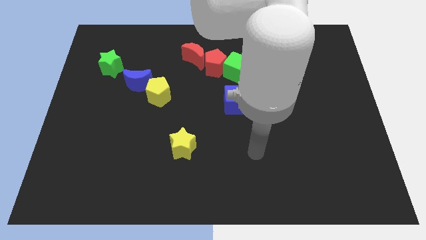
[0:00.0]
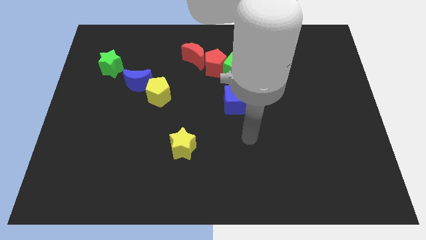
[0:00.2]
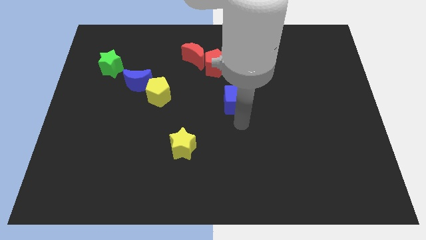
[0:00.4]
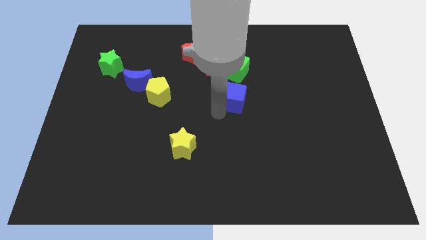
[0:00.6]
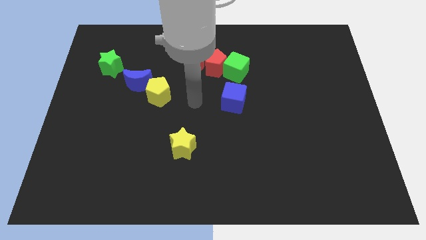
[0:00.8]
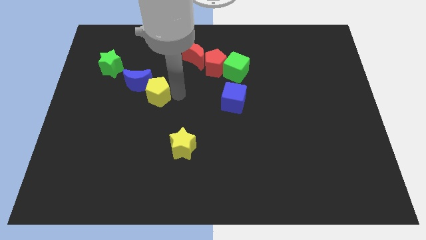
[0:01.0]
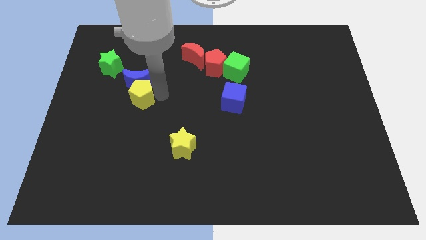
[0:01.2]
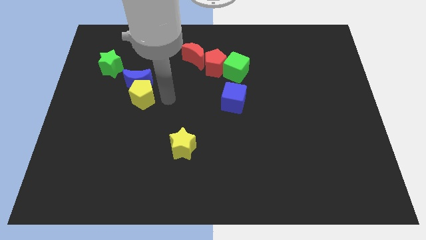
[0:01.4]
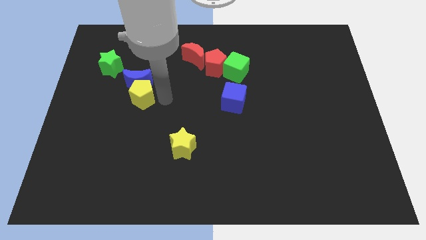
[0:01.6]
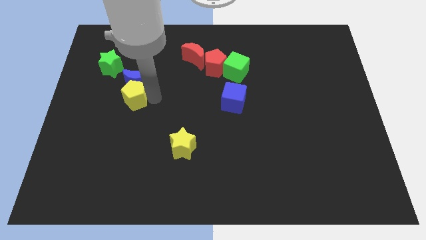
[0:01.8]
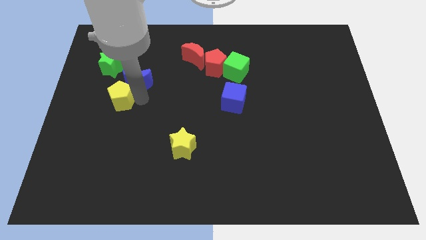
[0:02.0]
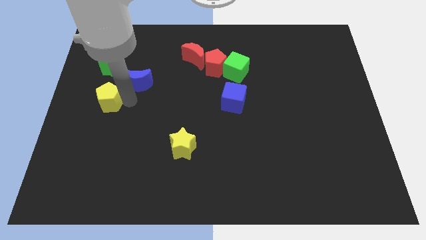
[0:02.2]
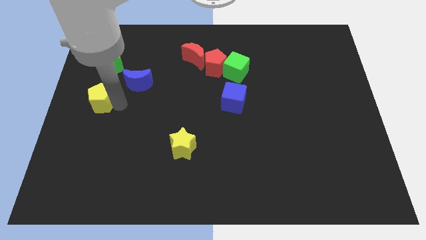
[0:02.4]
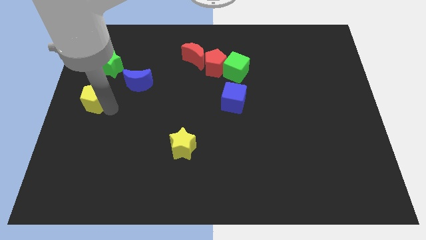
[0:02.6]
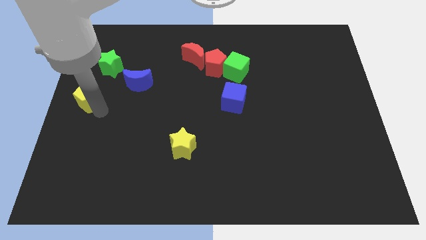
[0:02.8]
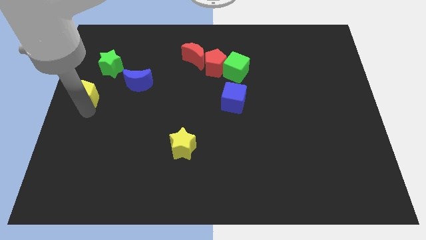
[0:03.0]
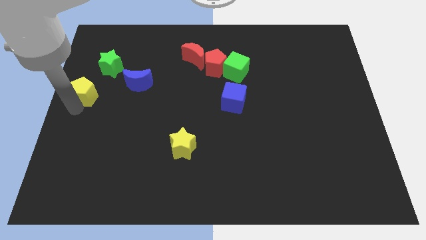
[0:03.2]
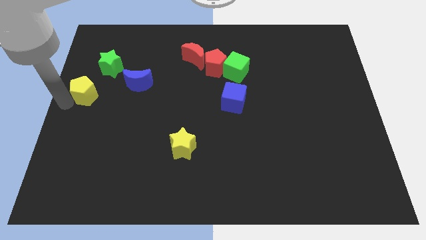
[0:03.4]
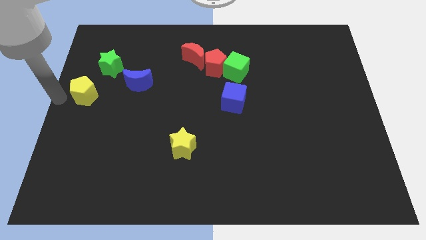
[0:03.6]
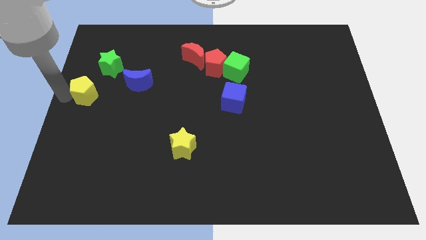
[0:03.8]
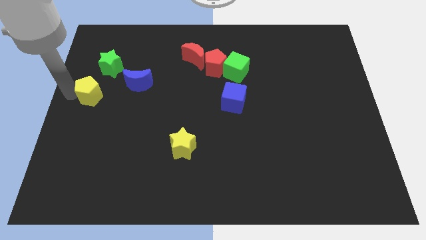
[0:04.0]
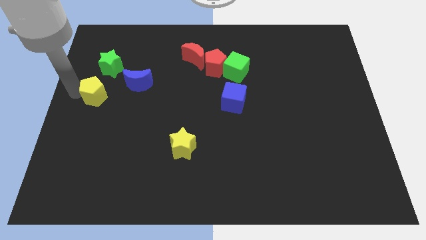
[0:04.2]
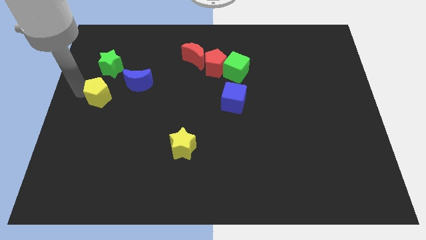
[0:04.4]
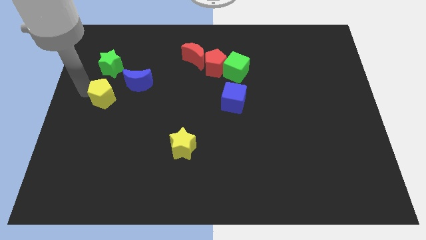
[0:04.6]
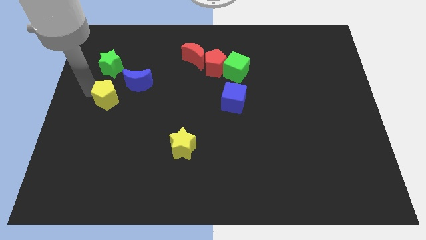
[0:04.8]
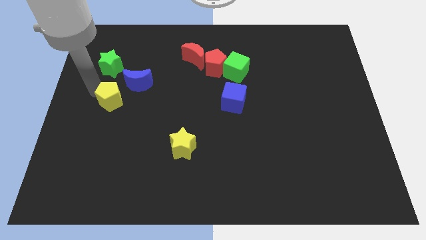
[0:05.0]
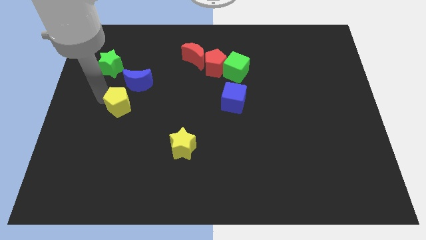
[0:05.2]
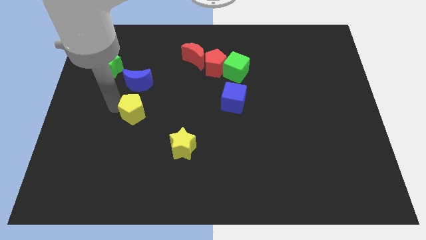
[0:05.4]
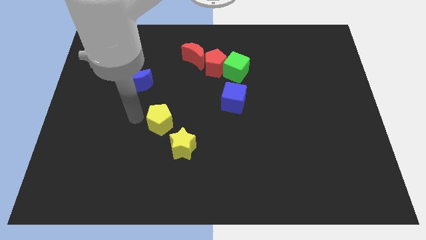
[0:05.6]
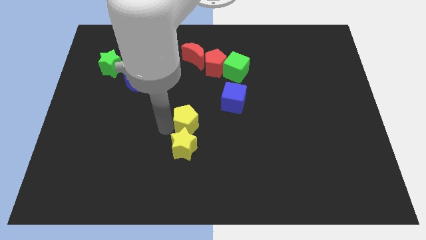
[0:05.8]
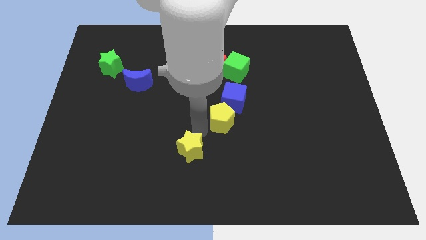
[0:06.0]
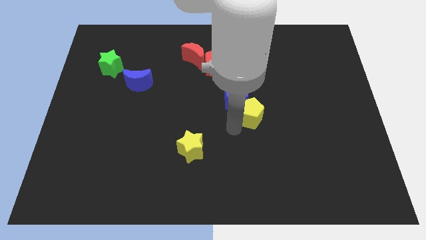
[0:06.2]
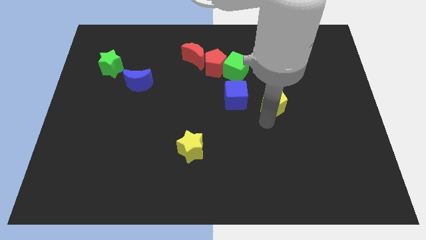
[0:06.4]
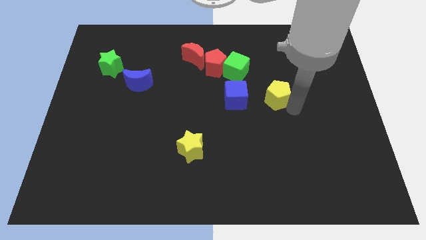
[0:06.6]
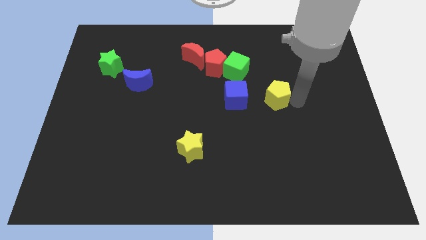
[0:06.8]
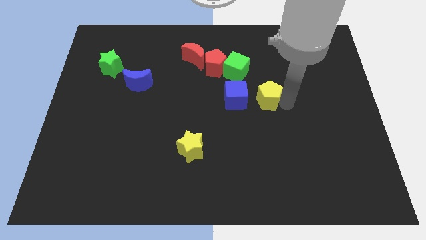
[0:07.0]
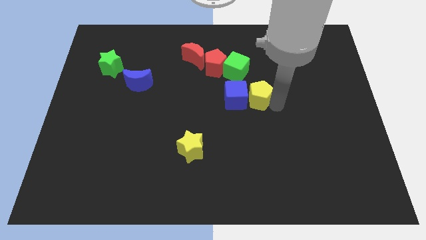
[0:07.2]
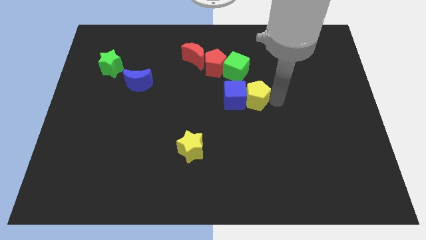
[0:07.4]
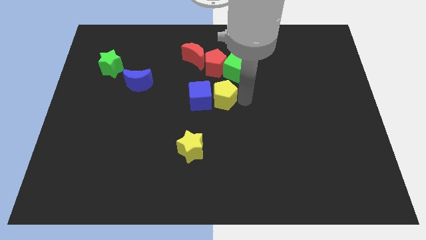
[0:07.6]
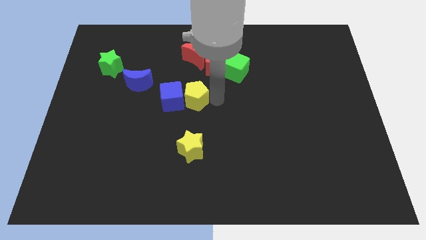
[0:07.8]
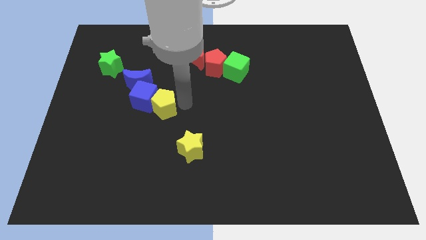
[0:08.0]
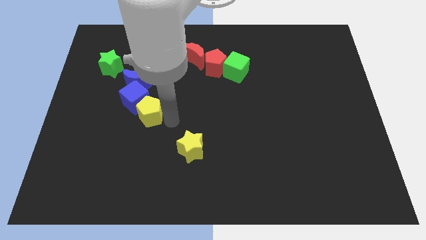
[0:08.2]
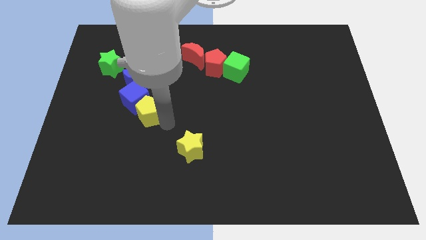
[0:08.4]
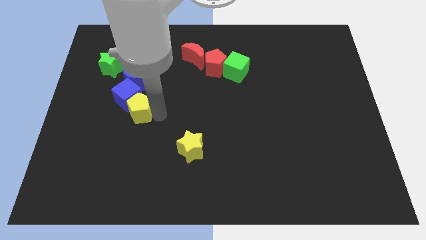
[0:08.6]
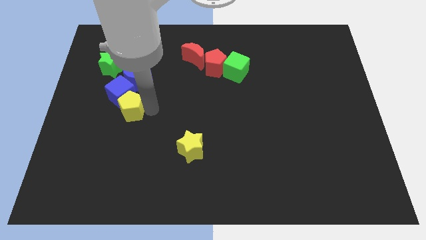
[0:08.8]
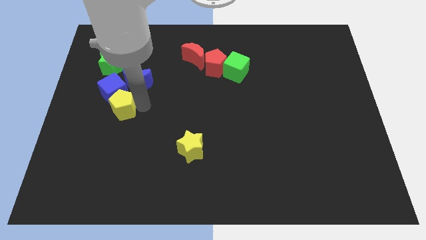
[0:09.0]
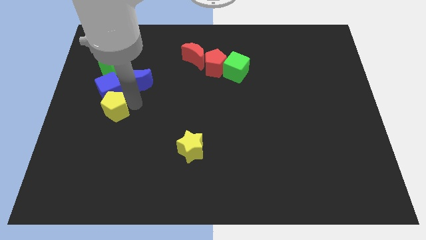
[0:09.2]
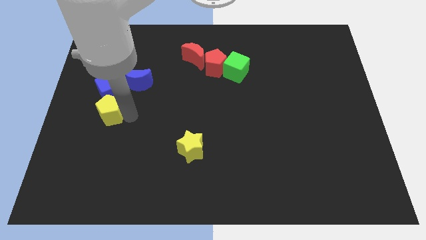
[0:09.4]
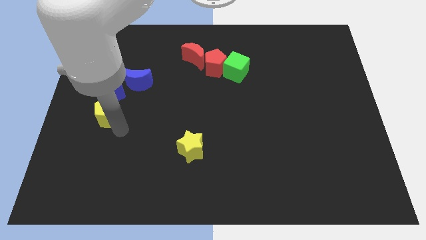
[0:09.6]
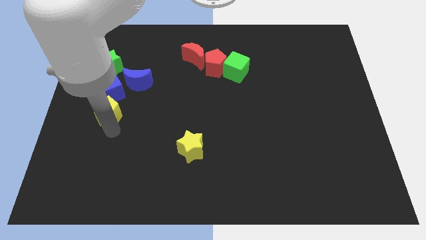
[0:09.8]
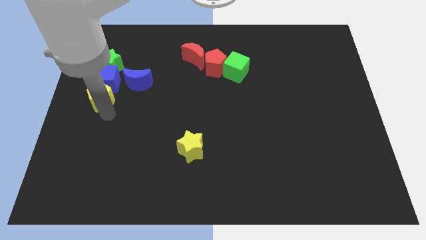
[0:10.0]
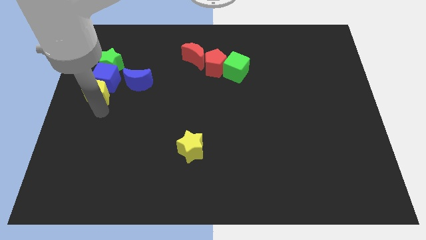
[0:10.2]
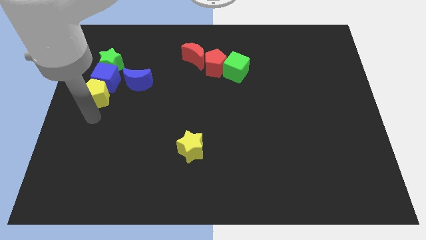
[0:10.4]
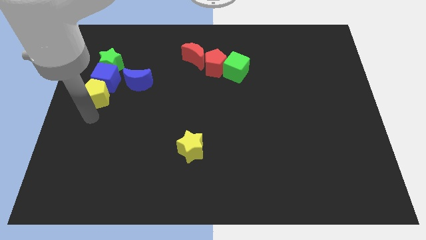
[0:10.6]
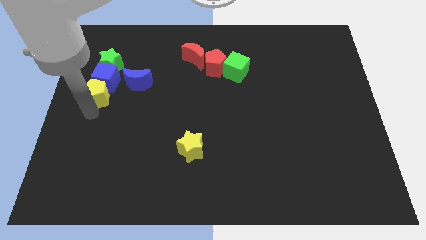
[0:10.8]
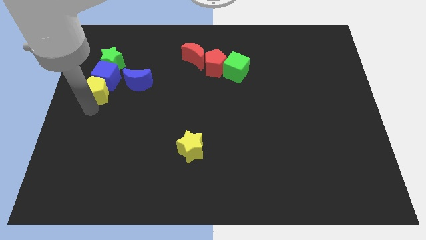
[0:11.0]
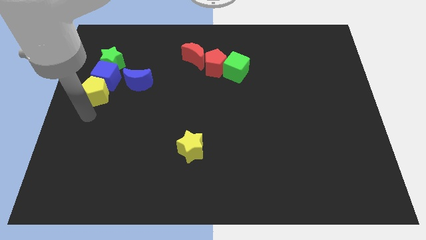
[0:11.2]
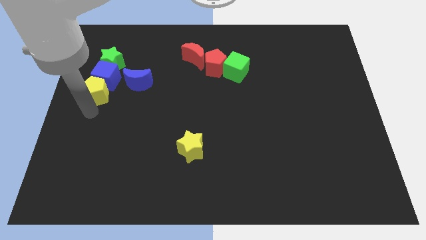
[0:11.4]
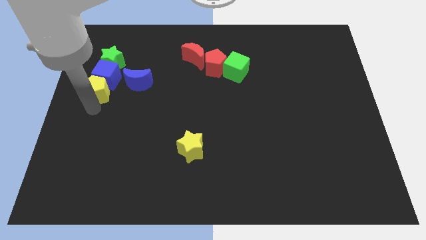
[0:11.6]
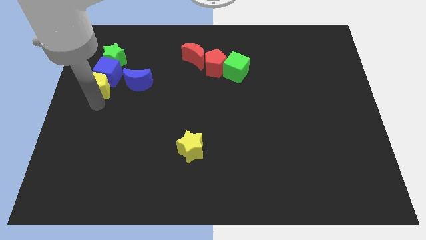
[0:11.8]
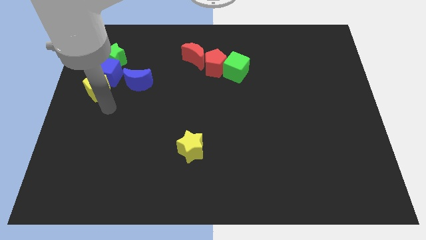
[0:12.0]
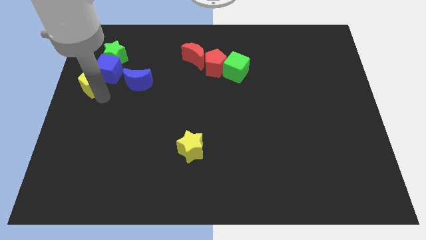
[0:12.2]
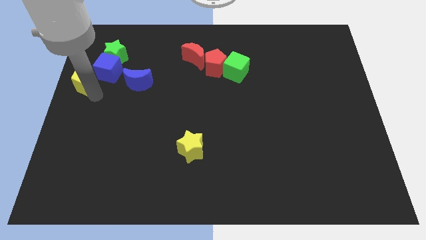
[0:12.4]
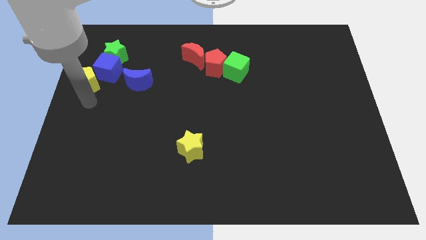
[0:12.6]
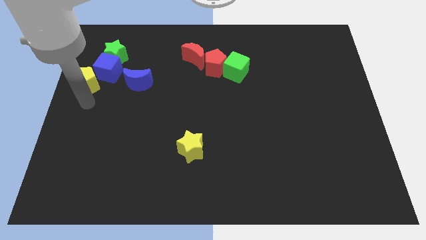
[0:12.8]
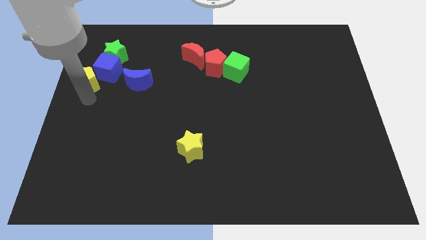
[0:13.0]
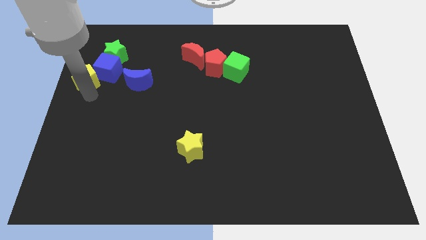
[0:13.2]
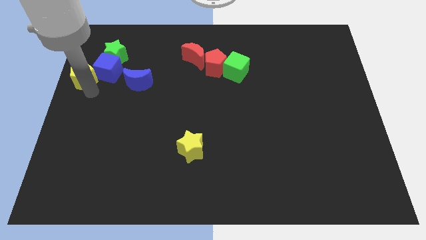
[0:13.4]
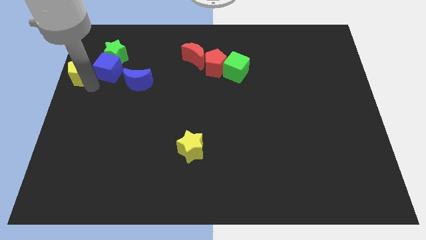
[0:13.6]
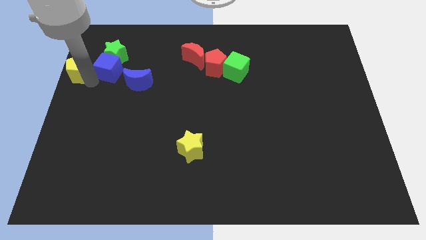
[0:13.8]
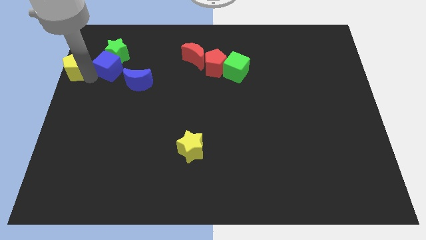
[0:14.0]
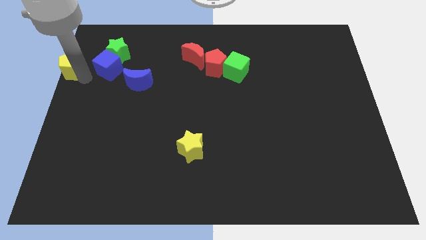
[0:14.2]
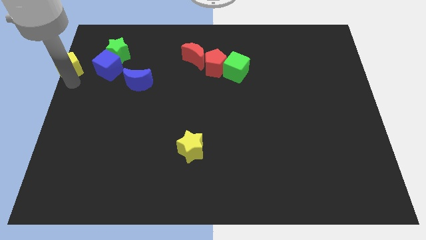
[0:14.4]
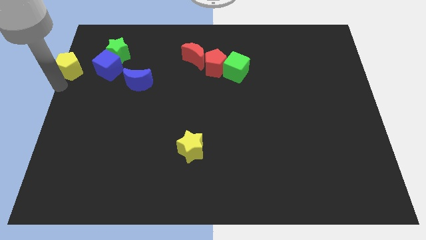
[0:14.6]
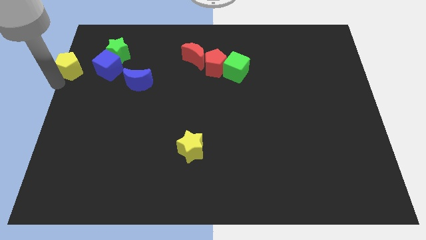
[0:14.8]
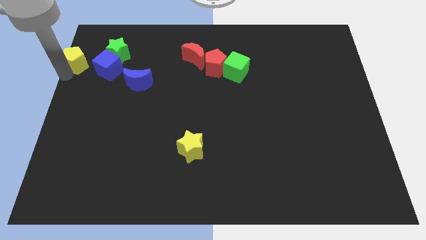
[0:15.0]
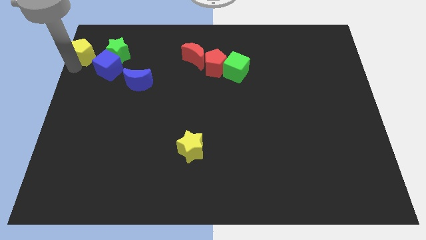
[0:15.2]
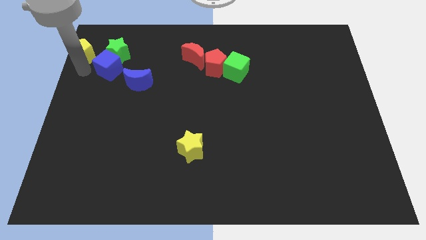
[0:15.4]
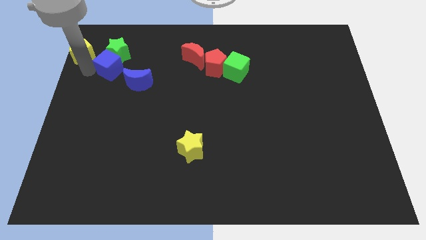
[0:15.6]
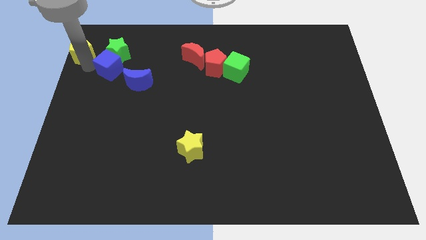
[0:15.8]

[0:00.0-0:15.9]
put the yellow pentagon to the upper left corner
